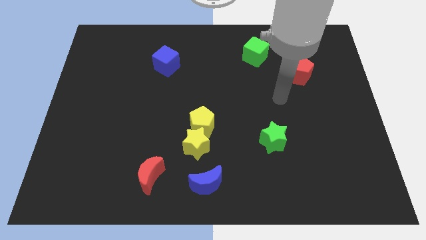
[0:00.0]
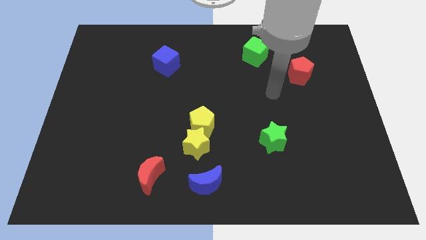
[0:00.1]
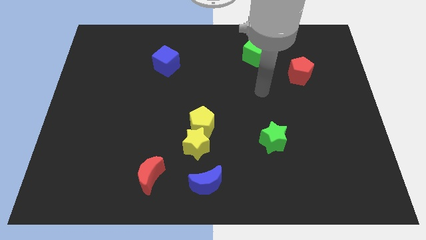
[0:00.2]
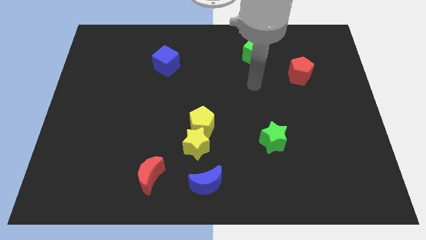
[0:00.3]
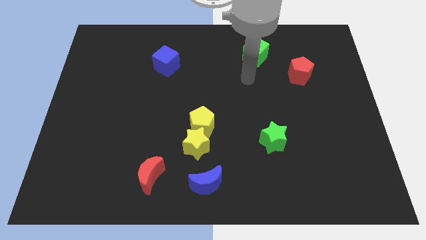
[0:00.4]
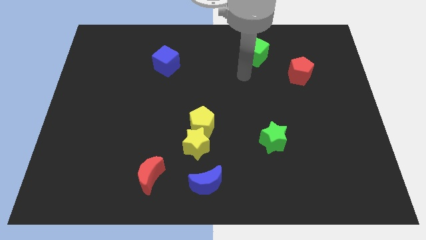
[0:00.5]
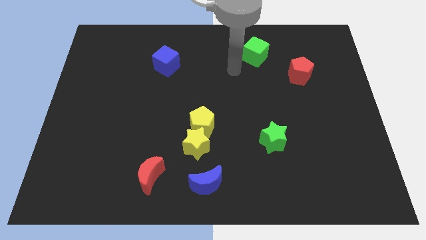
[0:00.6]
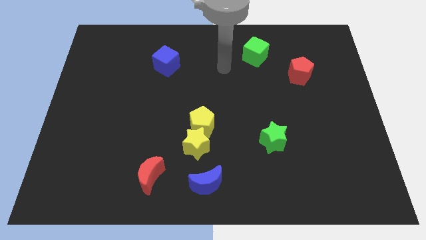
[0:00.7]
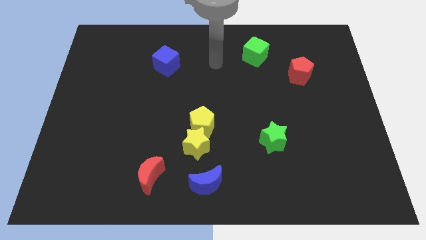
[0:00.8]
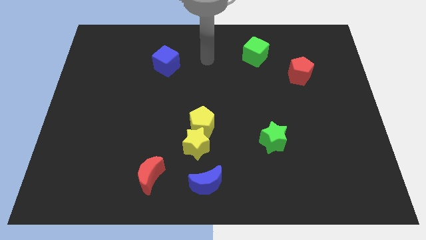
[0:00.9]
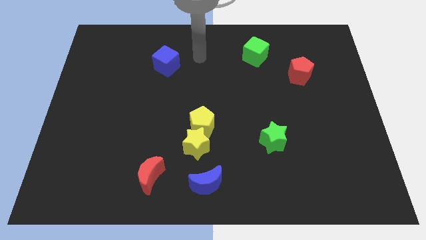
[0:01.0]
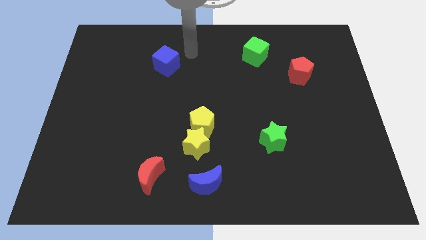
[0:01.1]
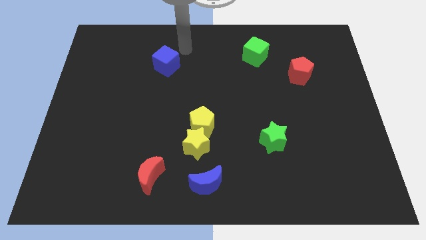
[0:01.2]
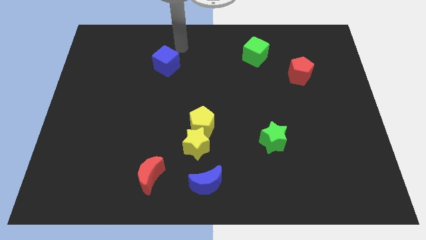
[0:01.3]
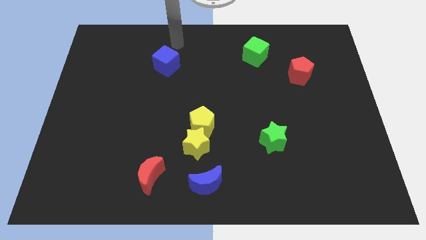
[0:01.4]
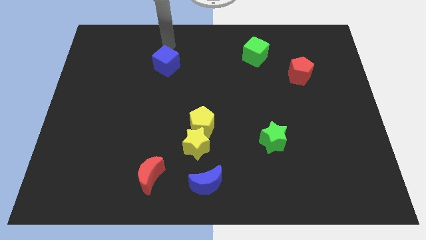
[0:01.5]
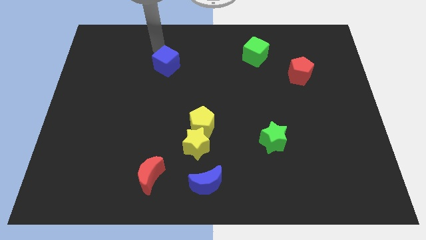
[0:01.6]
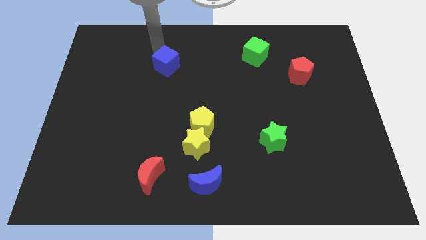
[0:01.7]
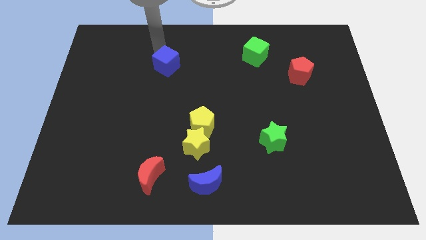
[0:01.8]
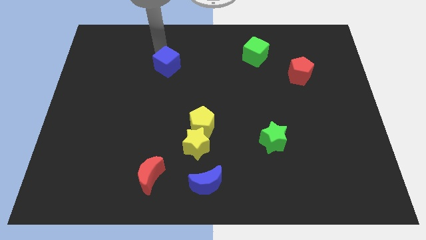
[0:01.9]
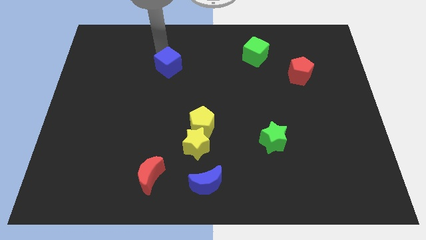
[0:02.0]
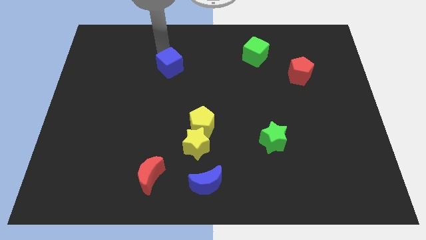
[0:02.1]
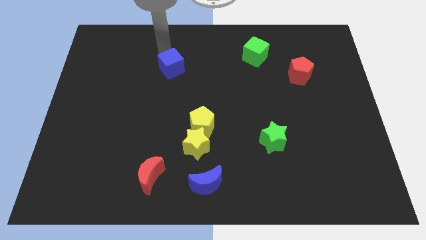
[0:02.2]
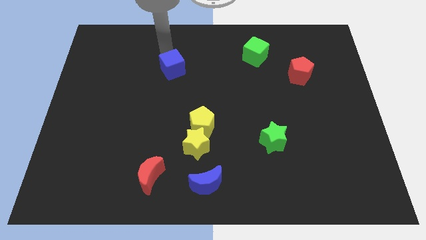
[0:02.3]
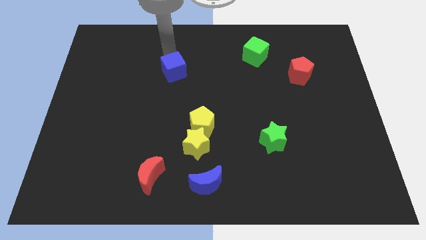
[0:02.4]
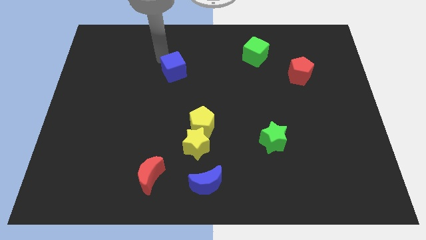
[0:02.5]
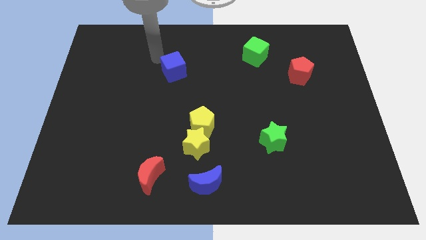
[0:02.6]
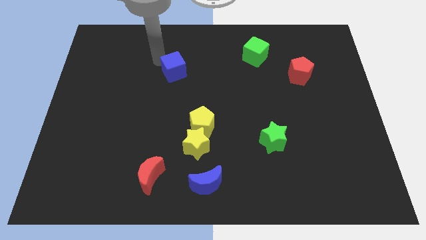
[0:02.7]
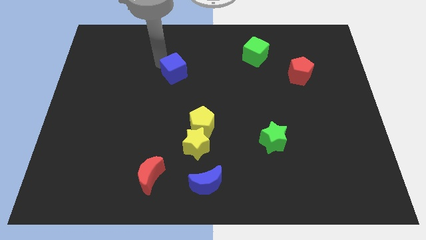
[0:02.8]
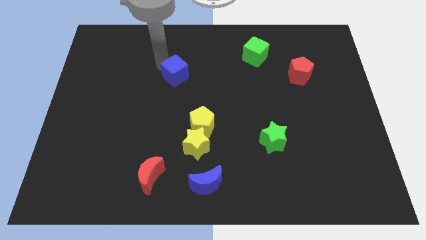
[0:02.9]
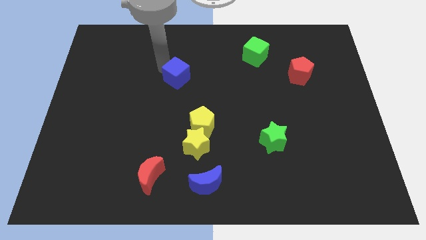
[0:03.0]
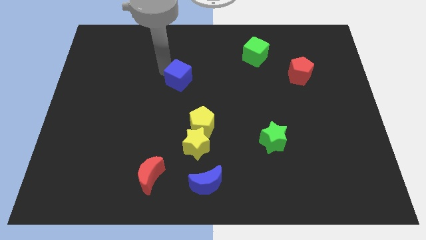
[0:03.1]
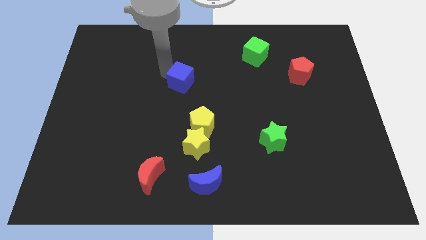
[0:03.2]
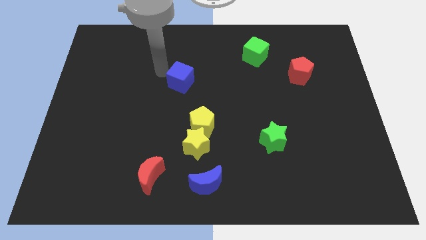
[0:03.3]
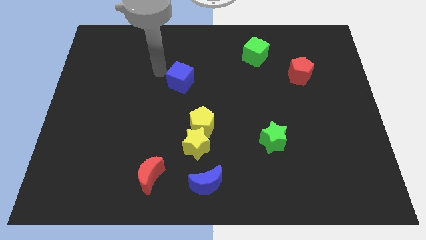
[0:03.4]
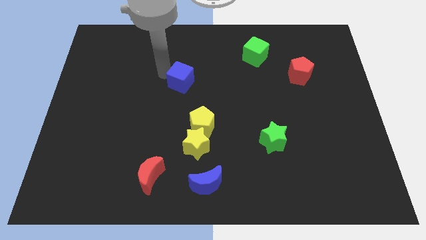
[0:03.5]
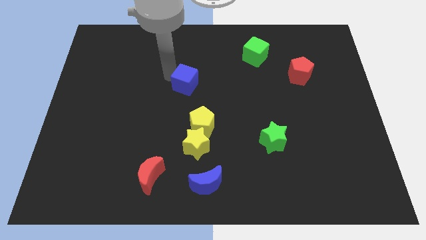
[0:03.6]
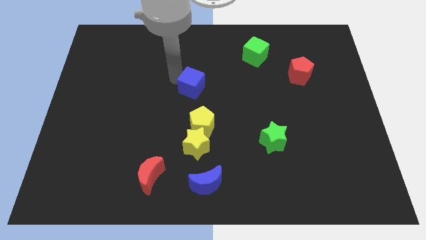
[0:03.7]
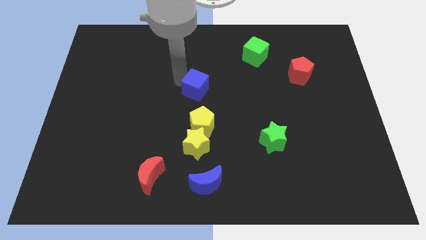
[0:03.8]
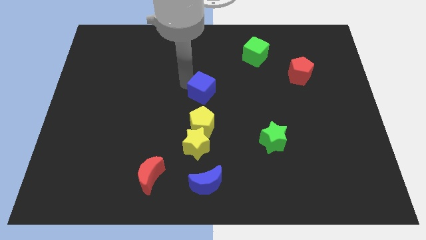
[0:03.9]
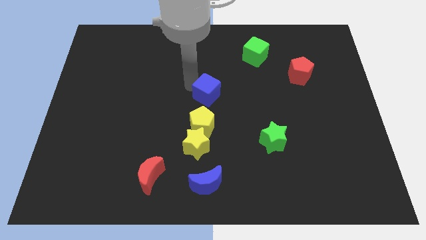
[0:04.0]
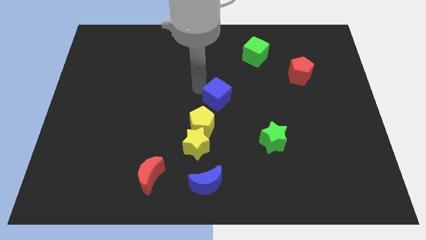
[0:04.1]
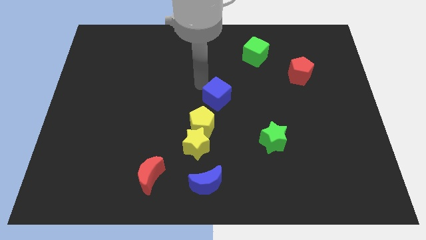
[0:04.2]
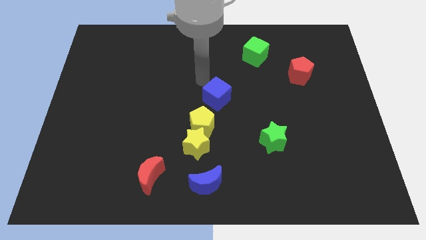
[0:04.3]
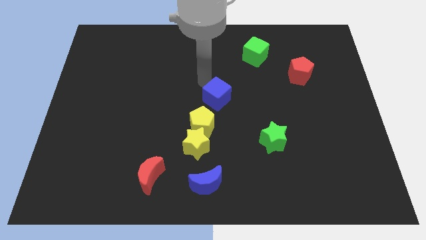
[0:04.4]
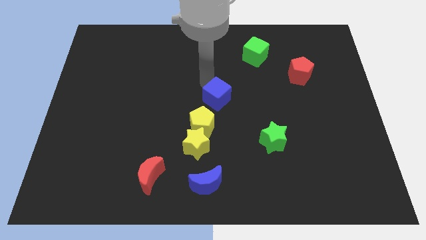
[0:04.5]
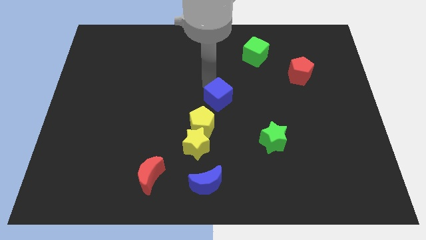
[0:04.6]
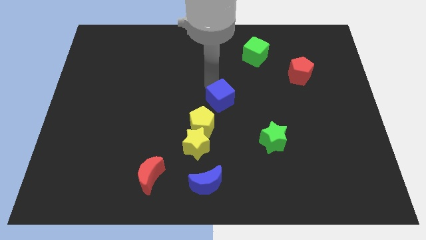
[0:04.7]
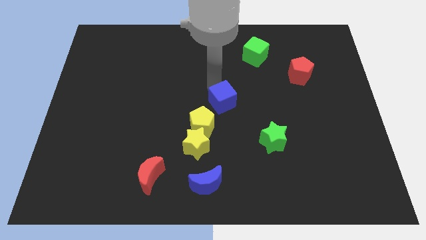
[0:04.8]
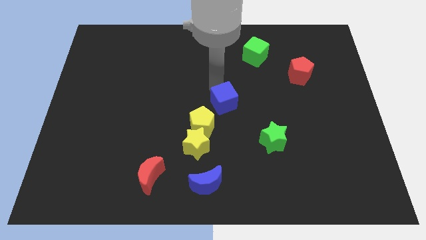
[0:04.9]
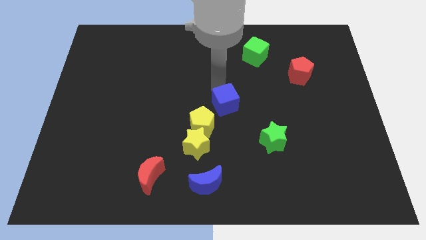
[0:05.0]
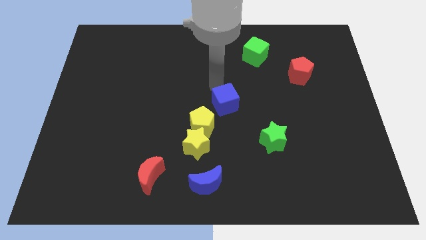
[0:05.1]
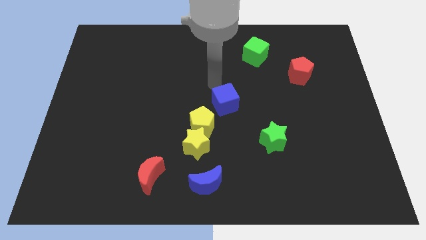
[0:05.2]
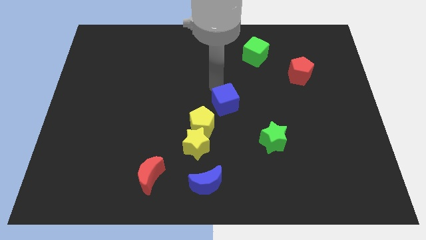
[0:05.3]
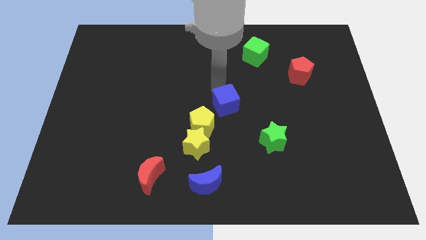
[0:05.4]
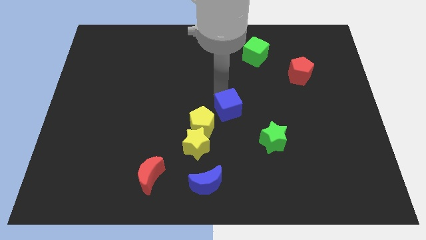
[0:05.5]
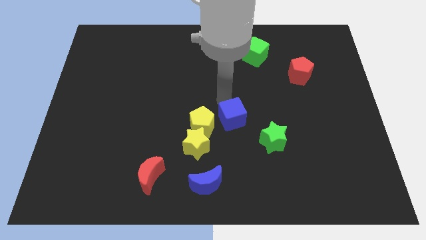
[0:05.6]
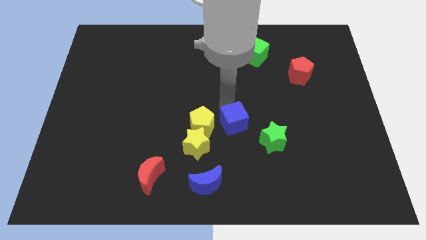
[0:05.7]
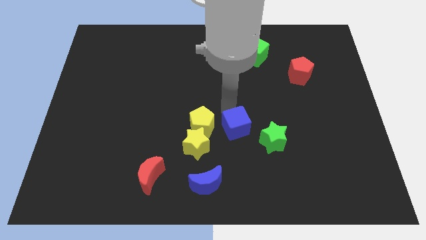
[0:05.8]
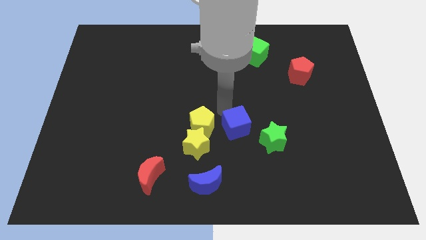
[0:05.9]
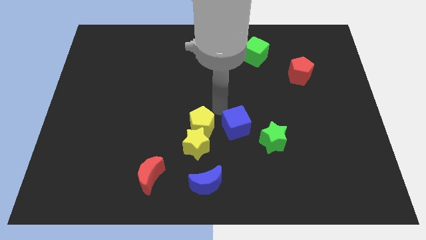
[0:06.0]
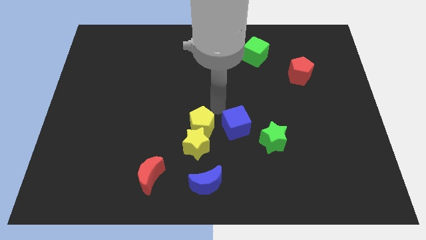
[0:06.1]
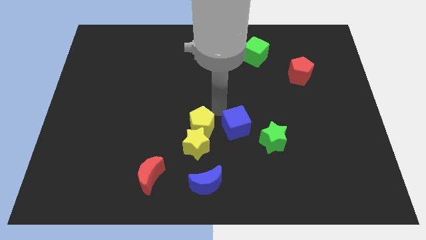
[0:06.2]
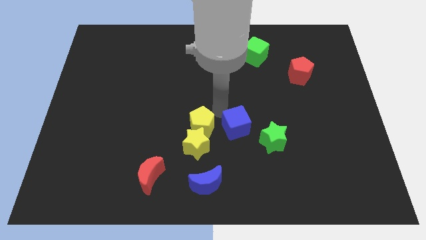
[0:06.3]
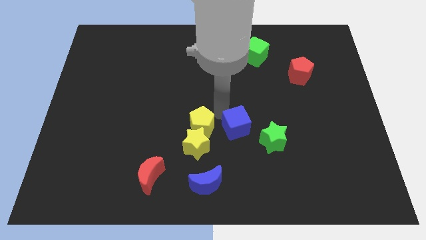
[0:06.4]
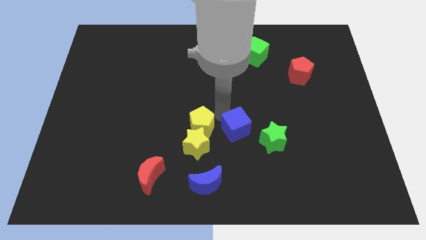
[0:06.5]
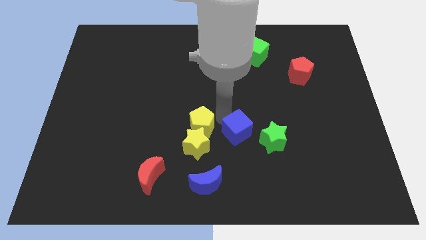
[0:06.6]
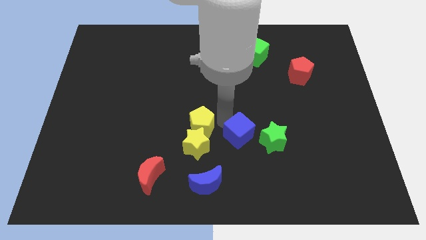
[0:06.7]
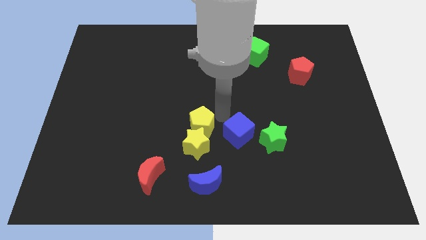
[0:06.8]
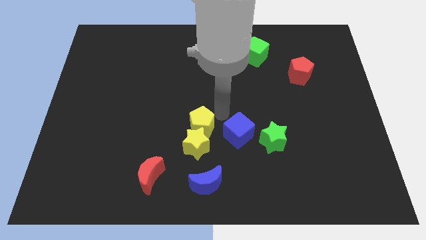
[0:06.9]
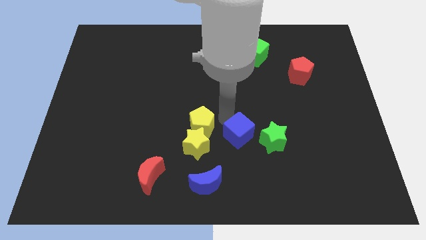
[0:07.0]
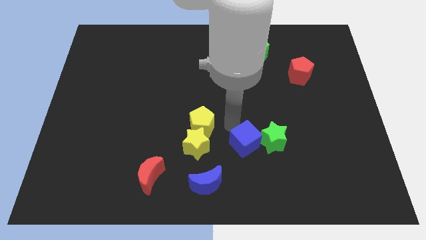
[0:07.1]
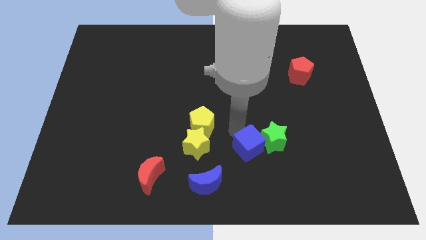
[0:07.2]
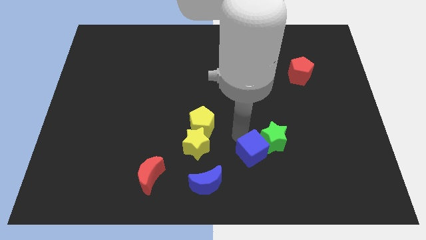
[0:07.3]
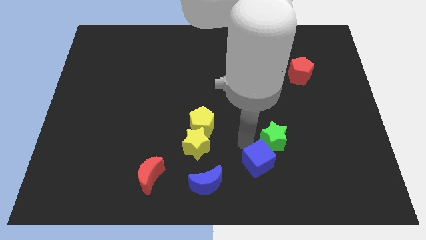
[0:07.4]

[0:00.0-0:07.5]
slide the blue cube to the bottom side of the green star
